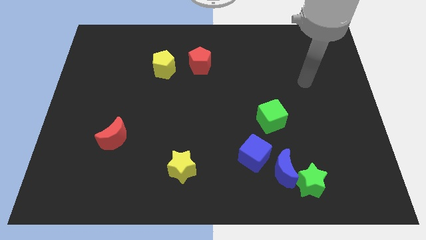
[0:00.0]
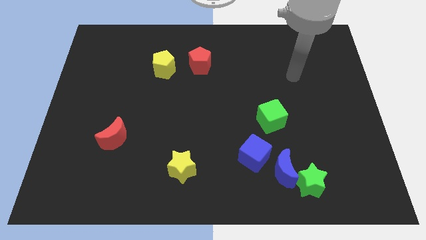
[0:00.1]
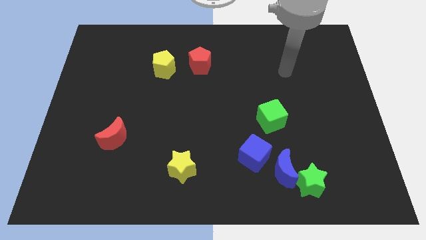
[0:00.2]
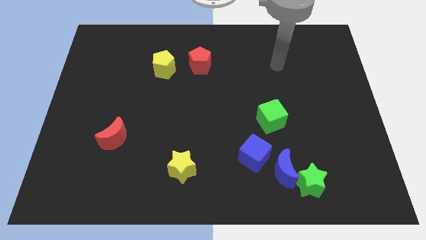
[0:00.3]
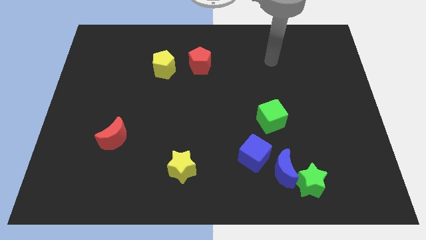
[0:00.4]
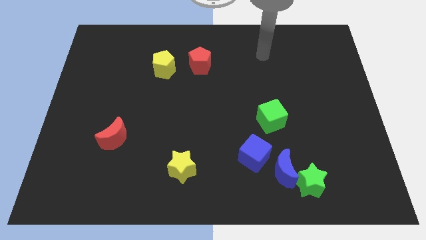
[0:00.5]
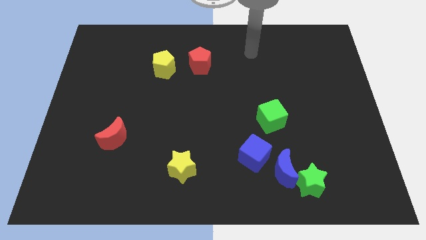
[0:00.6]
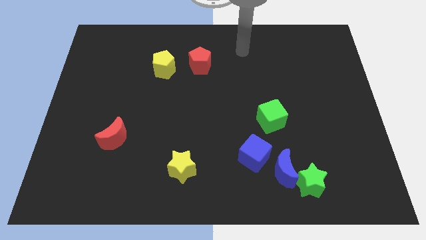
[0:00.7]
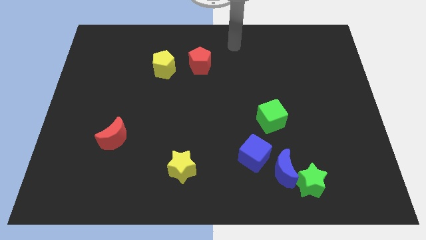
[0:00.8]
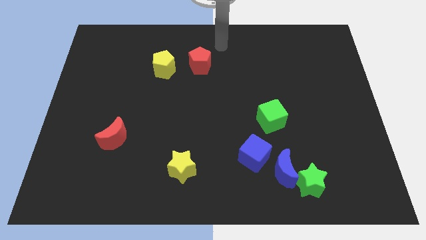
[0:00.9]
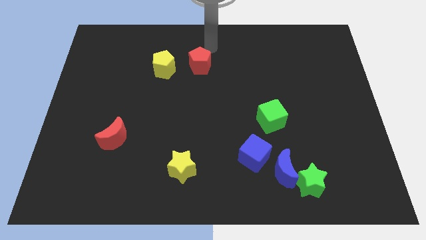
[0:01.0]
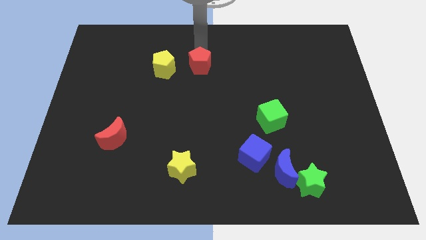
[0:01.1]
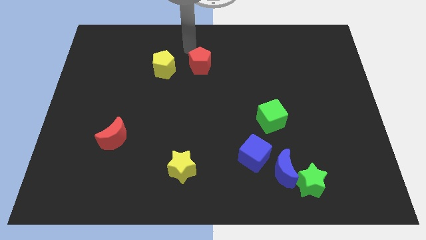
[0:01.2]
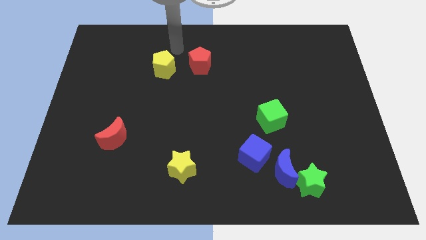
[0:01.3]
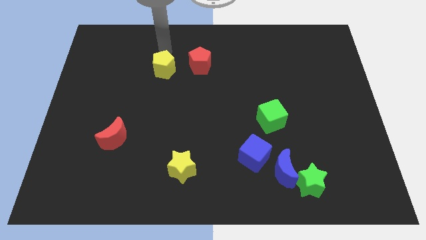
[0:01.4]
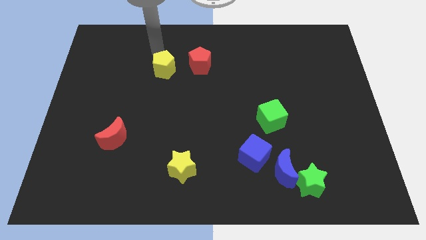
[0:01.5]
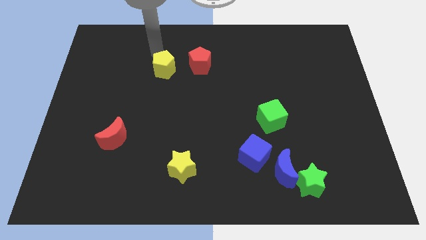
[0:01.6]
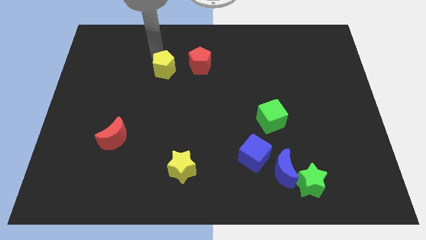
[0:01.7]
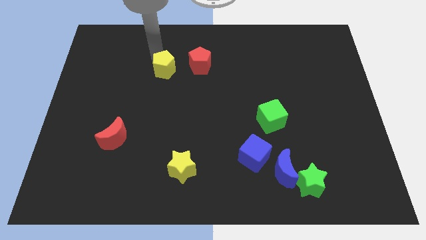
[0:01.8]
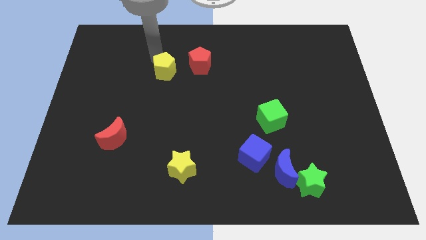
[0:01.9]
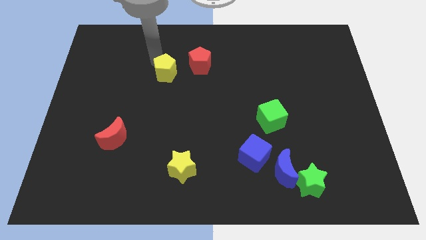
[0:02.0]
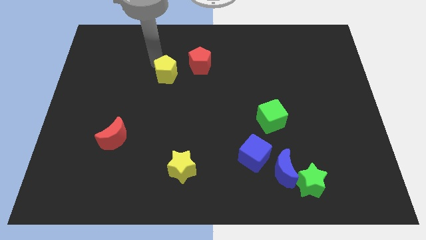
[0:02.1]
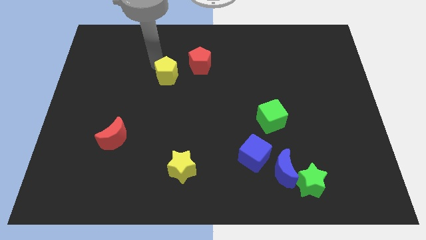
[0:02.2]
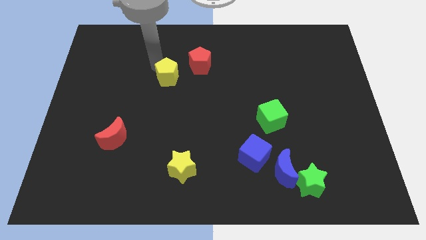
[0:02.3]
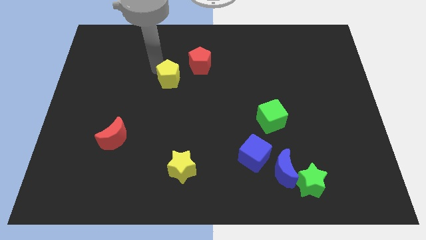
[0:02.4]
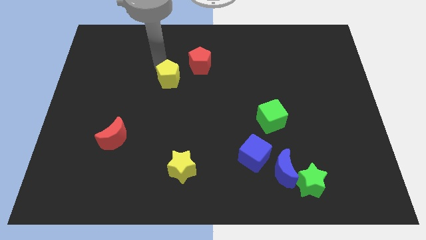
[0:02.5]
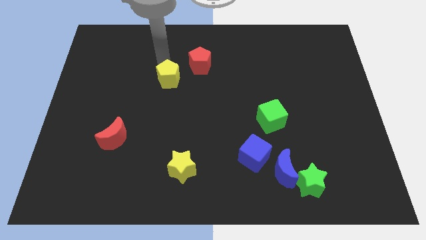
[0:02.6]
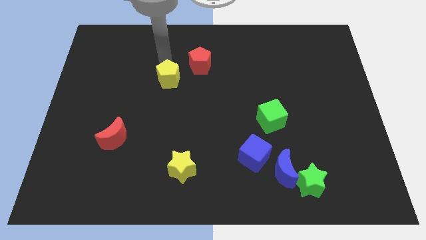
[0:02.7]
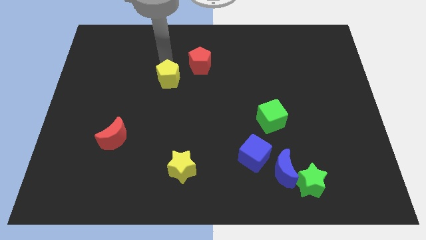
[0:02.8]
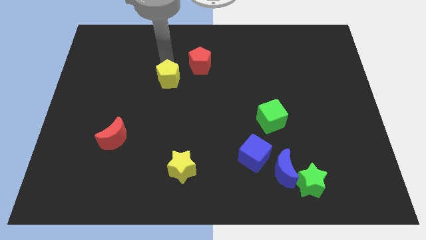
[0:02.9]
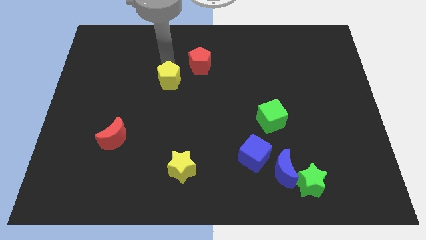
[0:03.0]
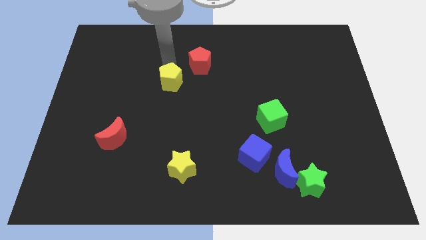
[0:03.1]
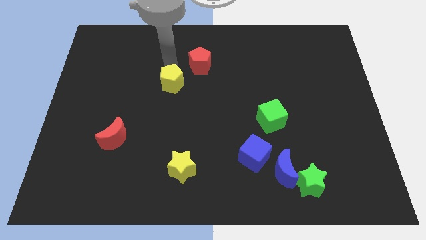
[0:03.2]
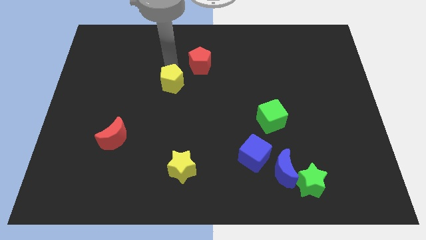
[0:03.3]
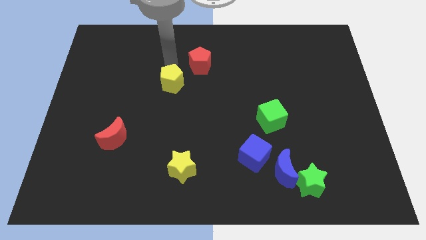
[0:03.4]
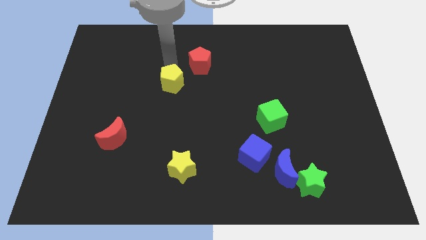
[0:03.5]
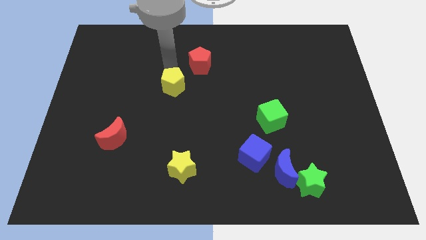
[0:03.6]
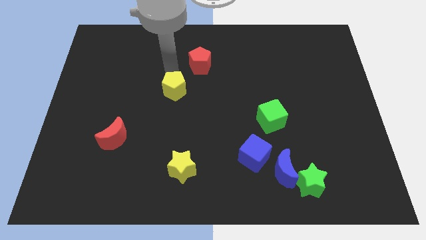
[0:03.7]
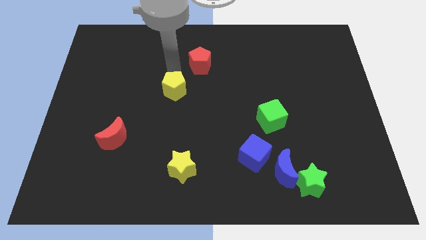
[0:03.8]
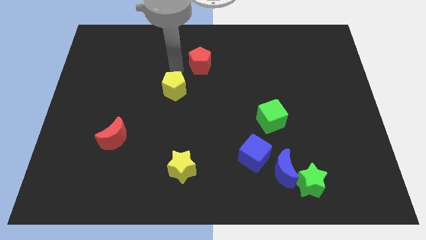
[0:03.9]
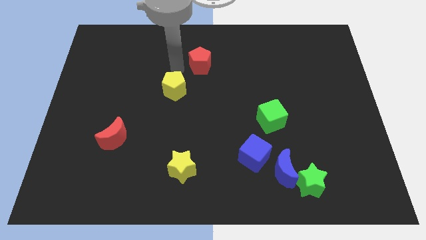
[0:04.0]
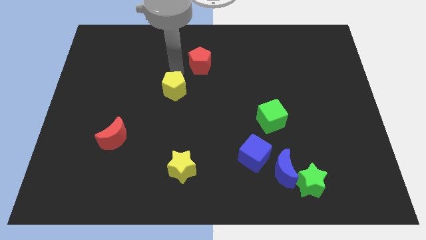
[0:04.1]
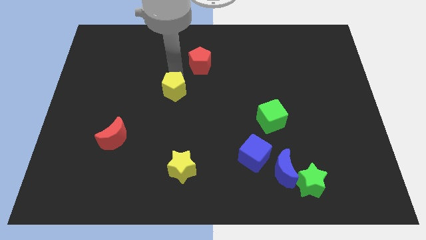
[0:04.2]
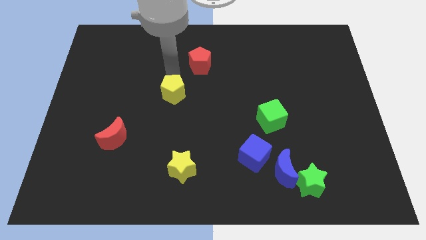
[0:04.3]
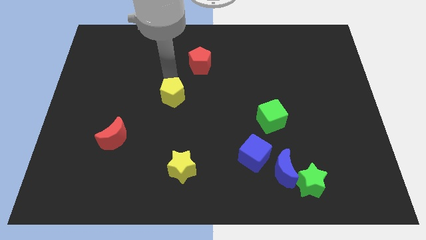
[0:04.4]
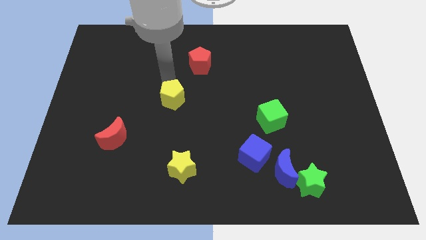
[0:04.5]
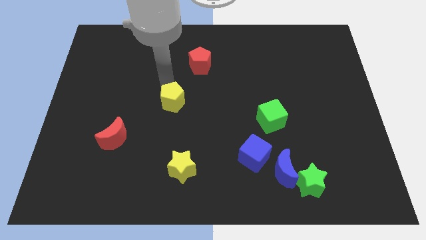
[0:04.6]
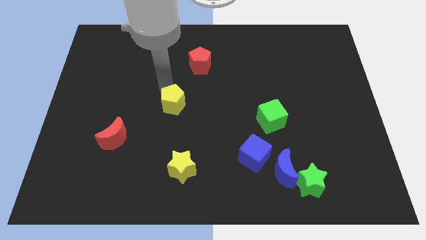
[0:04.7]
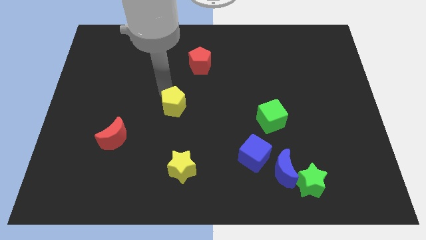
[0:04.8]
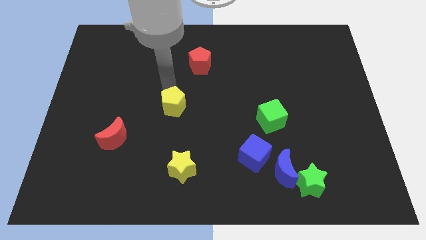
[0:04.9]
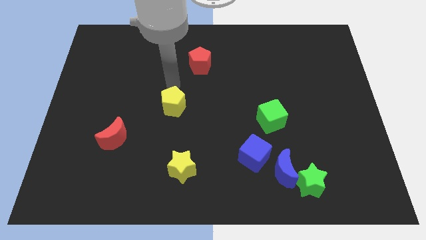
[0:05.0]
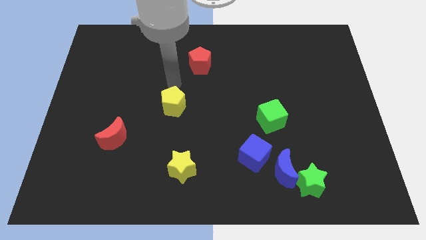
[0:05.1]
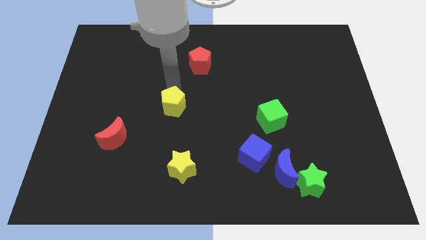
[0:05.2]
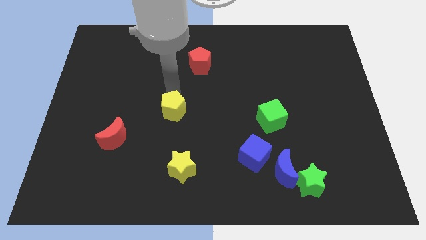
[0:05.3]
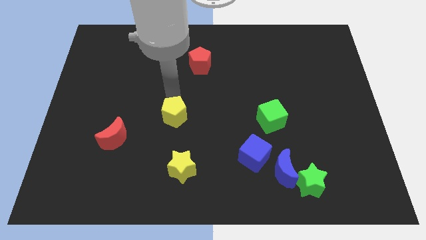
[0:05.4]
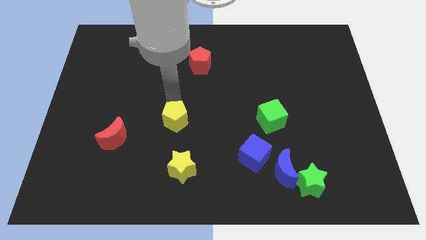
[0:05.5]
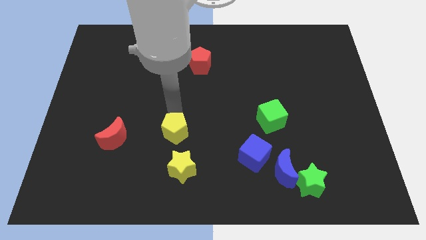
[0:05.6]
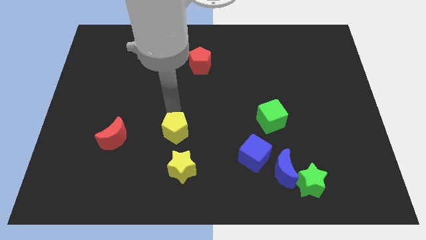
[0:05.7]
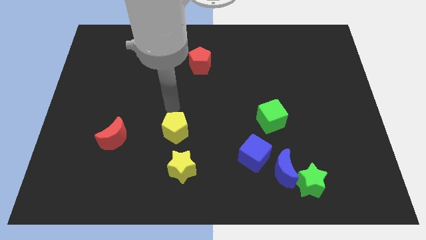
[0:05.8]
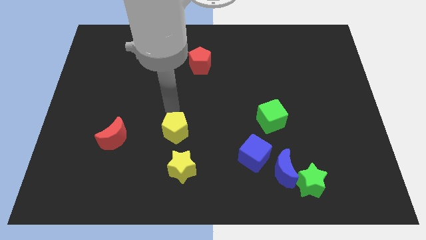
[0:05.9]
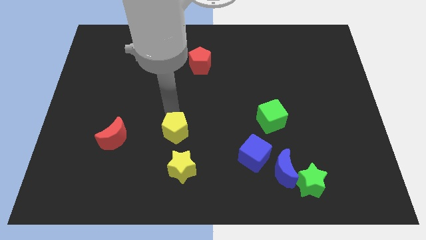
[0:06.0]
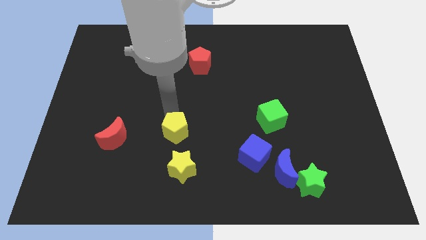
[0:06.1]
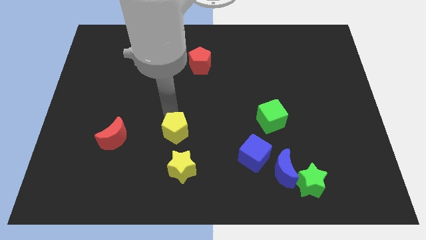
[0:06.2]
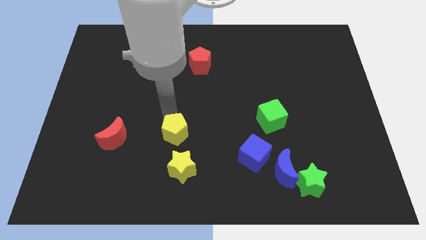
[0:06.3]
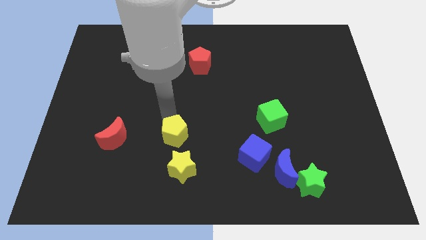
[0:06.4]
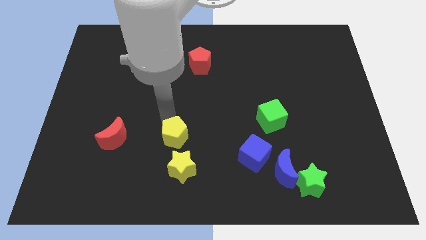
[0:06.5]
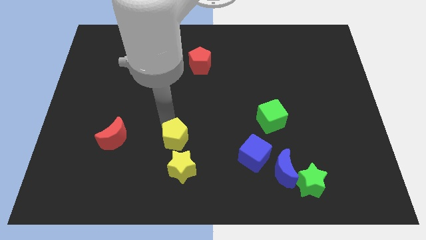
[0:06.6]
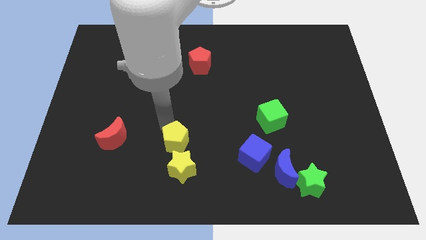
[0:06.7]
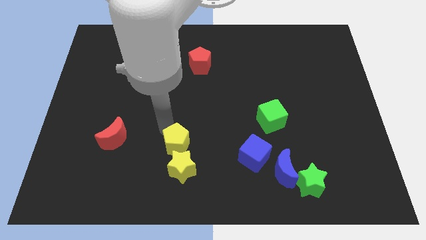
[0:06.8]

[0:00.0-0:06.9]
put the yellow pentagon towards the yellow star
